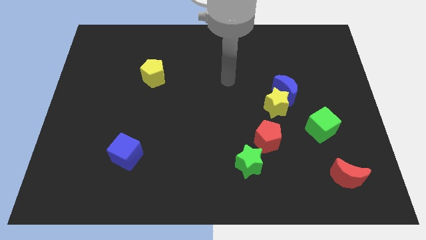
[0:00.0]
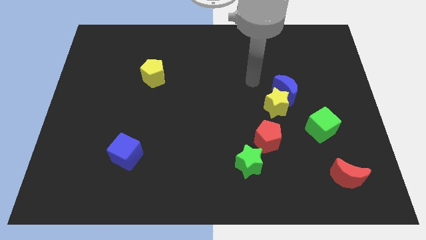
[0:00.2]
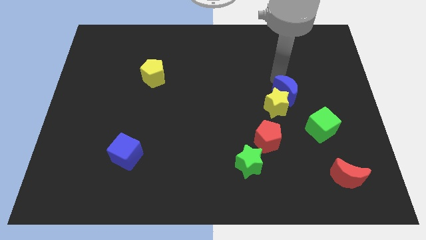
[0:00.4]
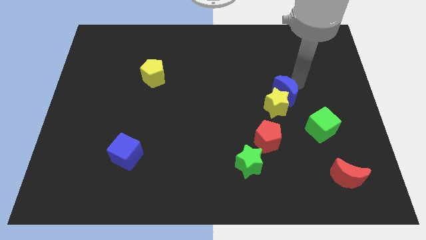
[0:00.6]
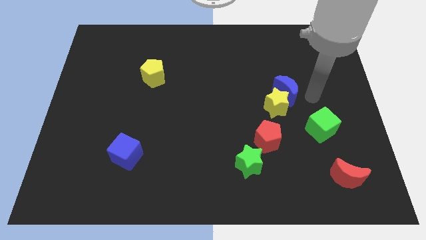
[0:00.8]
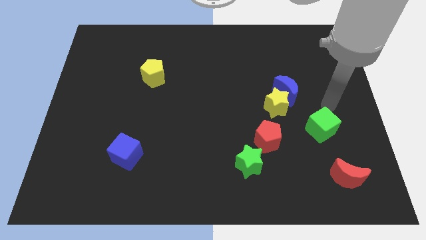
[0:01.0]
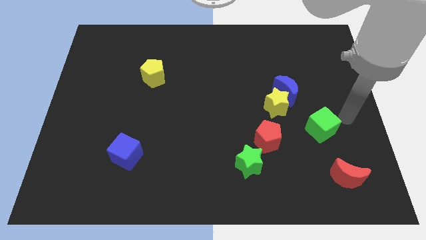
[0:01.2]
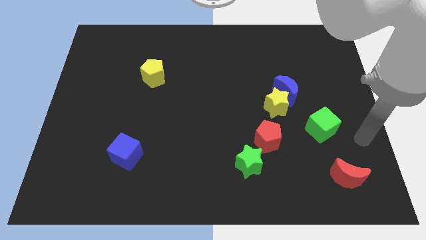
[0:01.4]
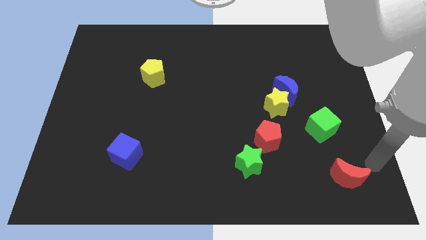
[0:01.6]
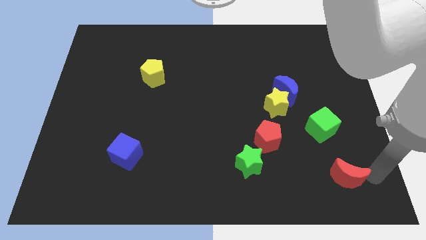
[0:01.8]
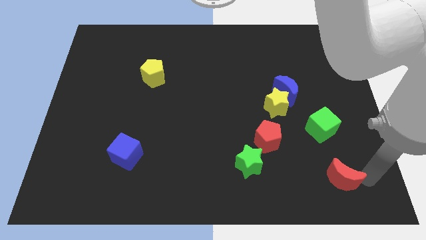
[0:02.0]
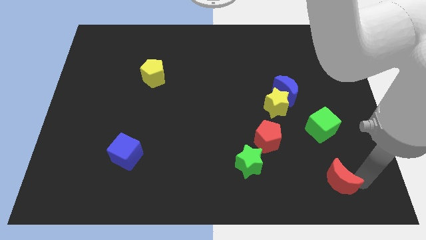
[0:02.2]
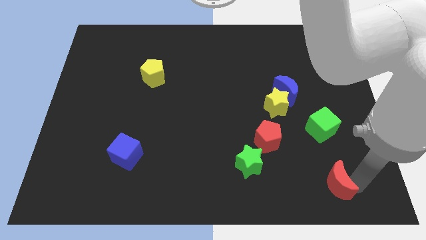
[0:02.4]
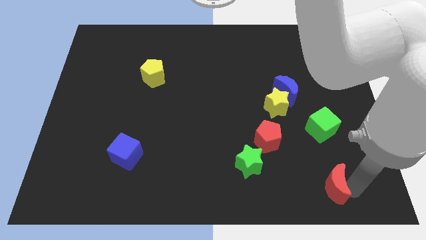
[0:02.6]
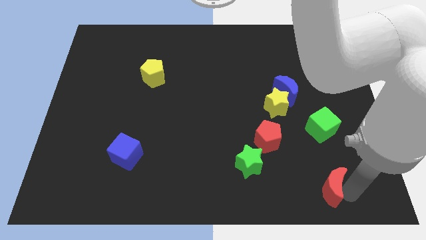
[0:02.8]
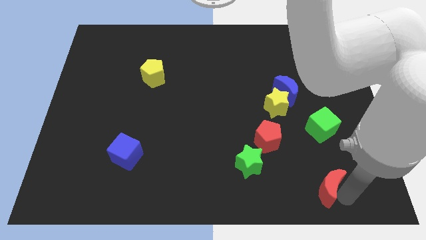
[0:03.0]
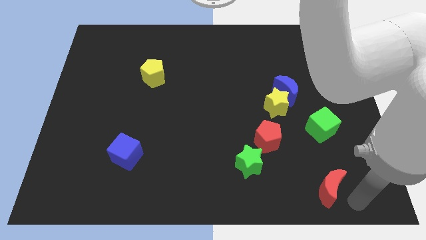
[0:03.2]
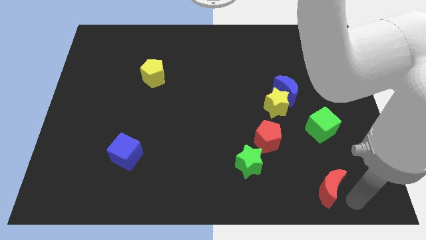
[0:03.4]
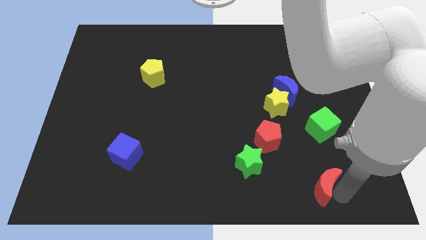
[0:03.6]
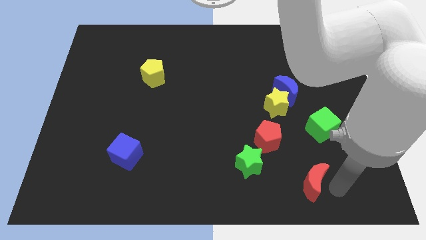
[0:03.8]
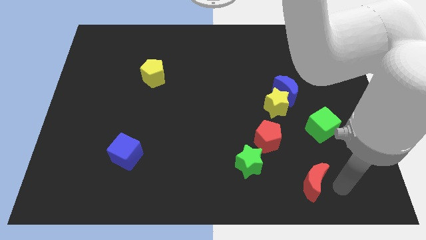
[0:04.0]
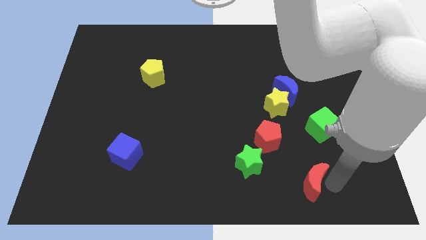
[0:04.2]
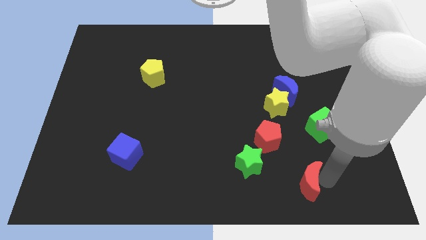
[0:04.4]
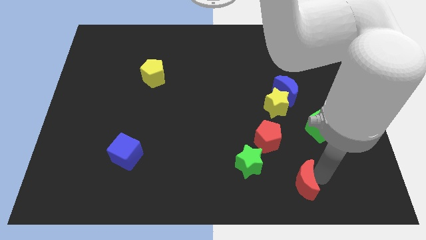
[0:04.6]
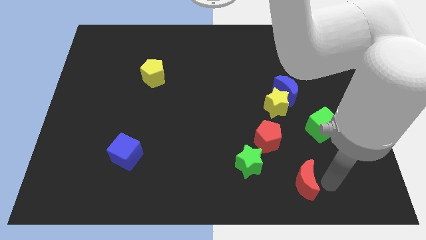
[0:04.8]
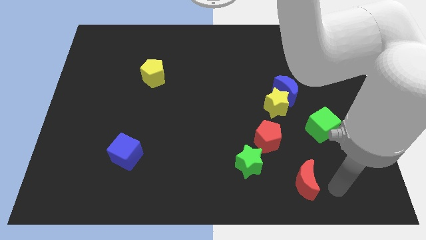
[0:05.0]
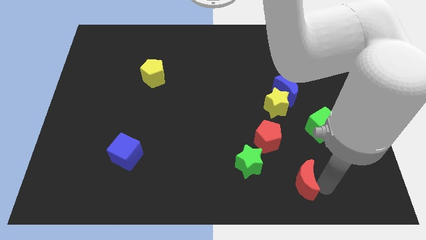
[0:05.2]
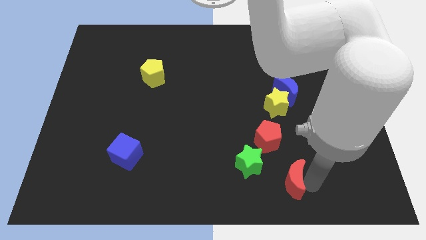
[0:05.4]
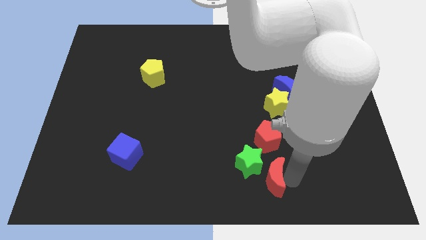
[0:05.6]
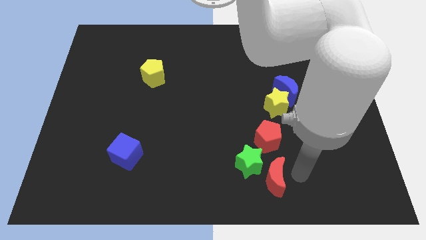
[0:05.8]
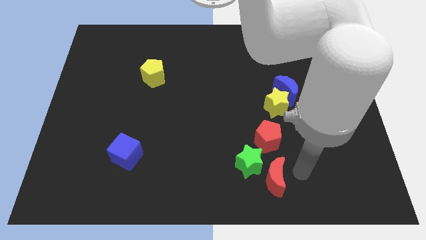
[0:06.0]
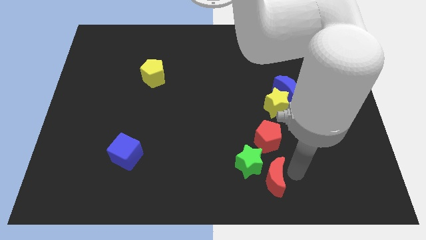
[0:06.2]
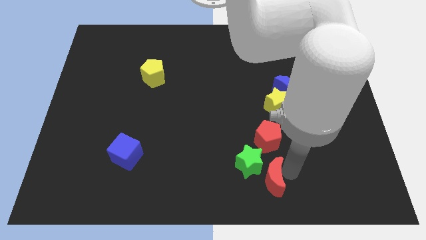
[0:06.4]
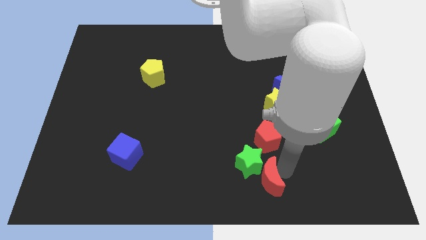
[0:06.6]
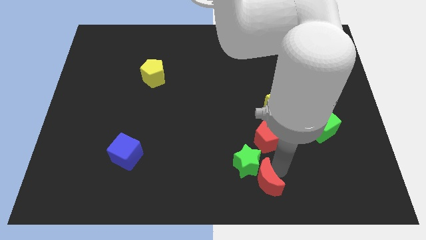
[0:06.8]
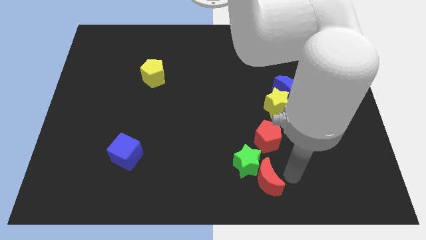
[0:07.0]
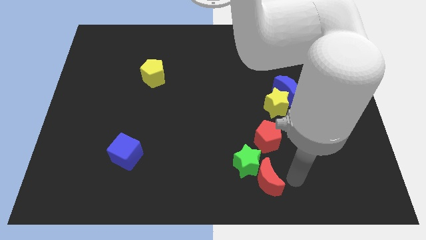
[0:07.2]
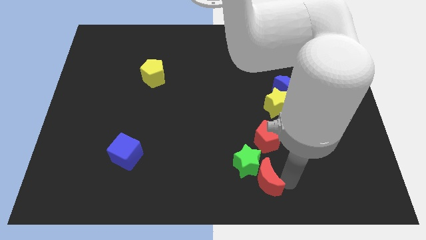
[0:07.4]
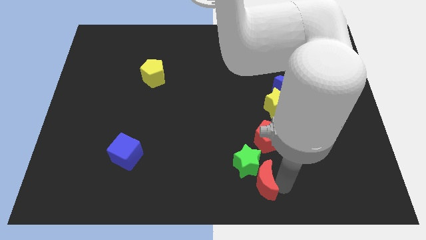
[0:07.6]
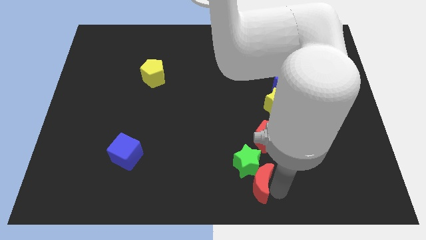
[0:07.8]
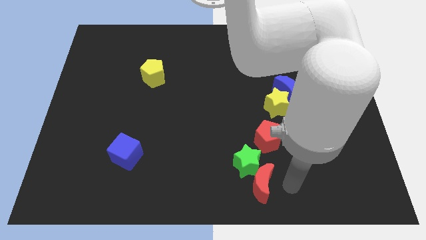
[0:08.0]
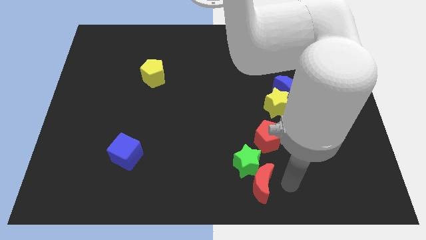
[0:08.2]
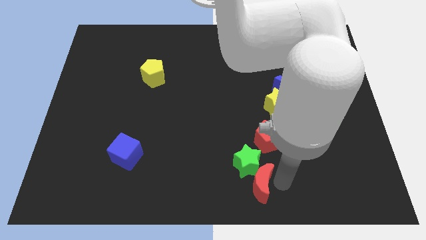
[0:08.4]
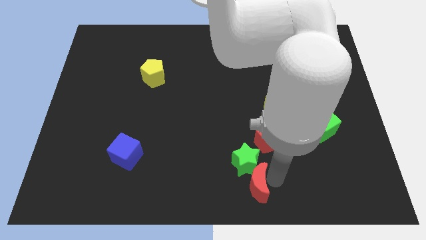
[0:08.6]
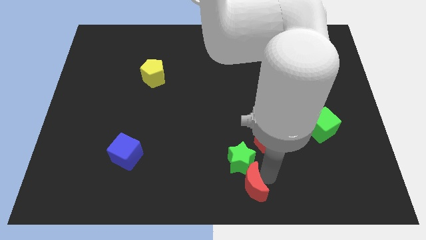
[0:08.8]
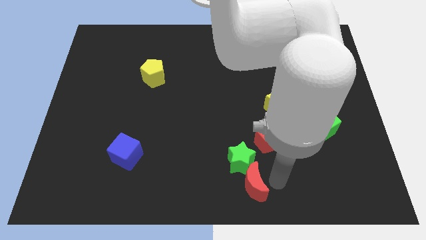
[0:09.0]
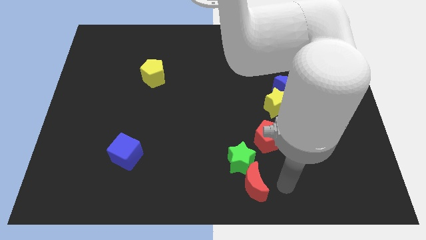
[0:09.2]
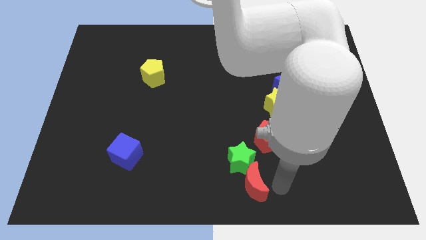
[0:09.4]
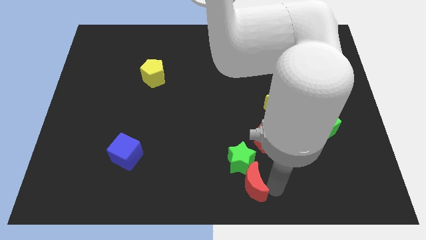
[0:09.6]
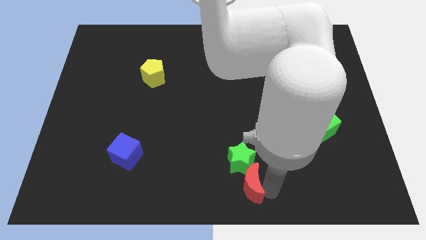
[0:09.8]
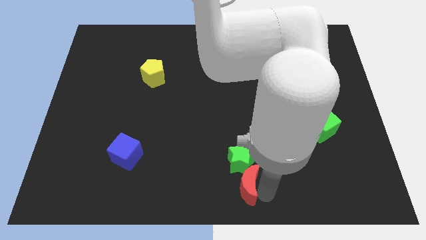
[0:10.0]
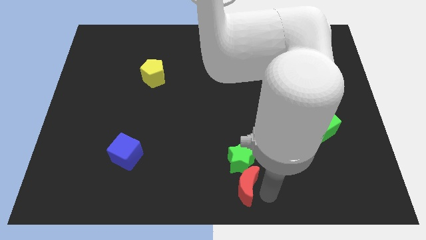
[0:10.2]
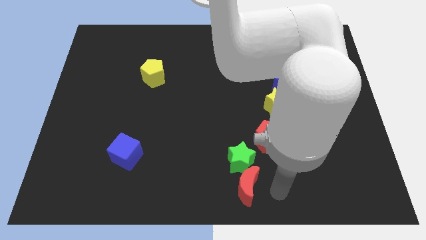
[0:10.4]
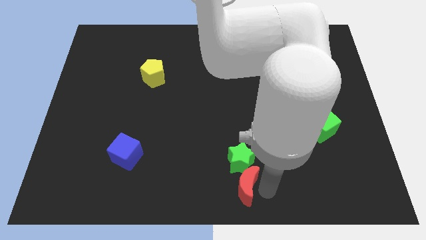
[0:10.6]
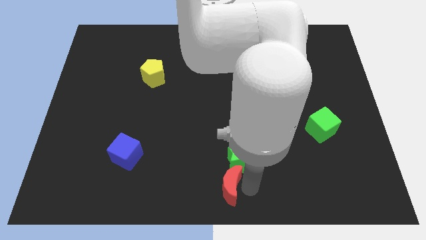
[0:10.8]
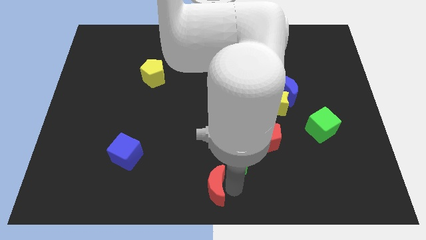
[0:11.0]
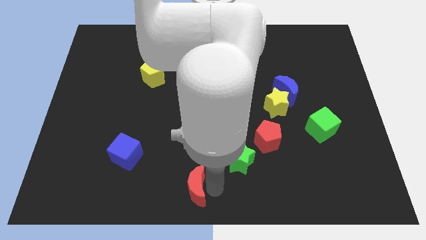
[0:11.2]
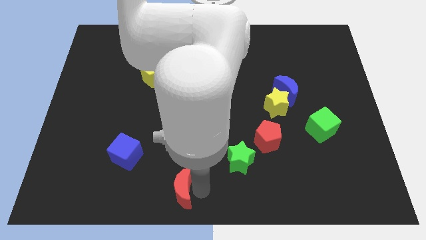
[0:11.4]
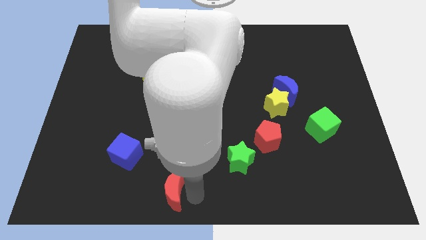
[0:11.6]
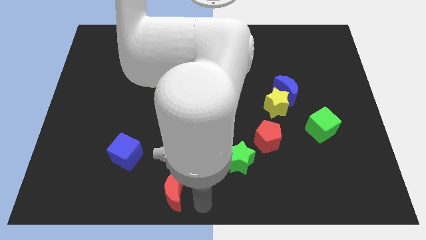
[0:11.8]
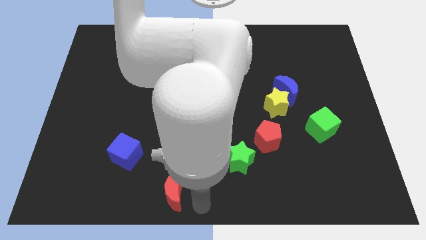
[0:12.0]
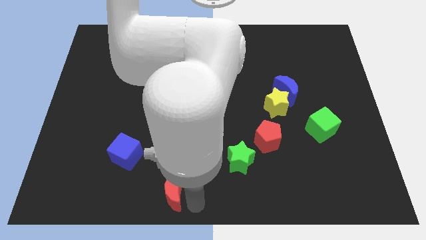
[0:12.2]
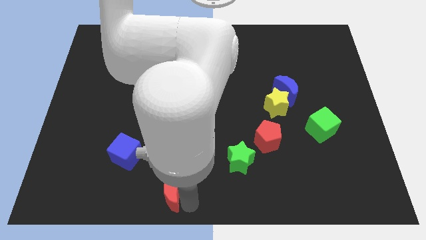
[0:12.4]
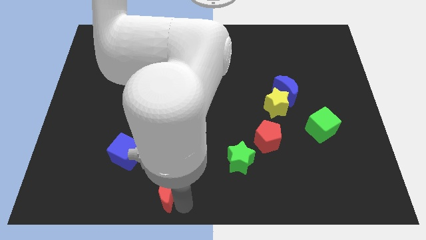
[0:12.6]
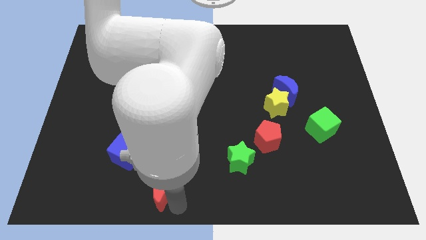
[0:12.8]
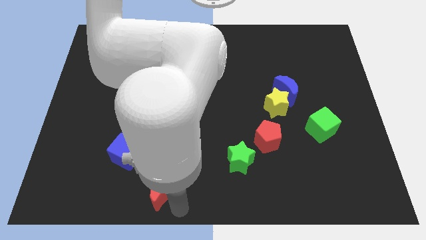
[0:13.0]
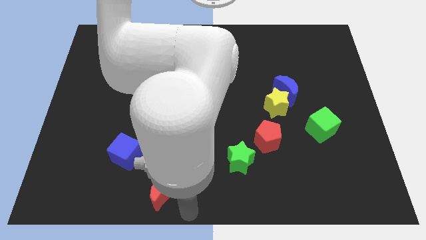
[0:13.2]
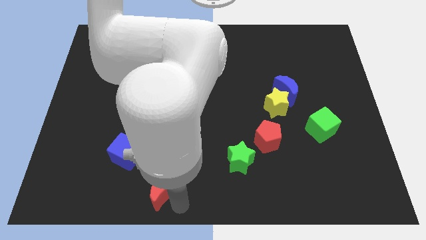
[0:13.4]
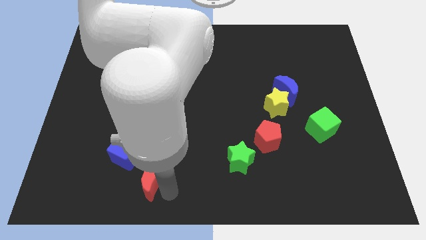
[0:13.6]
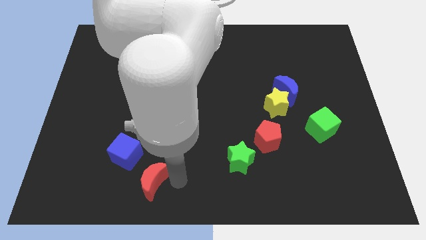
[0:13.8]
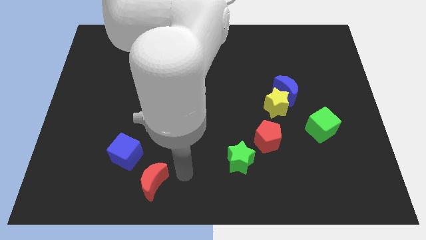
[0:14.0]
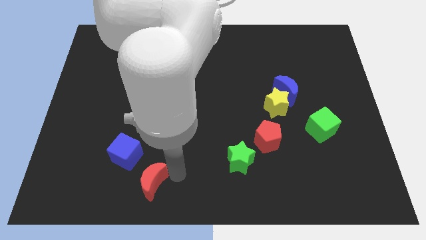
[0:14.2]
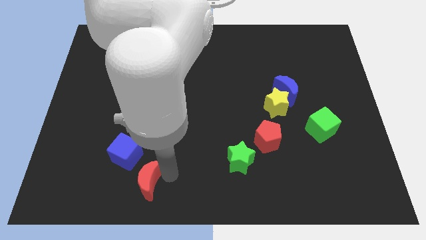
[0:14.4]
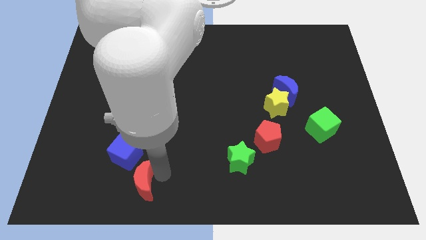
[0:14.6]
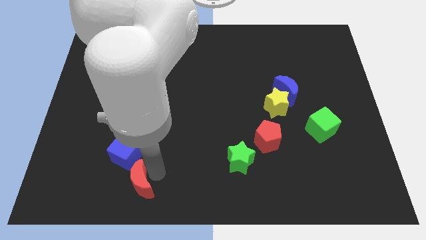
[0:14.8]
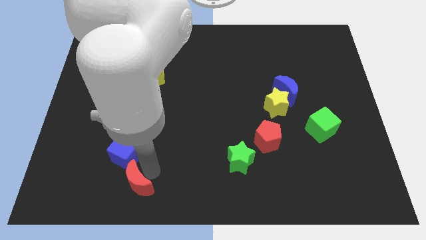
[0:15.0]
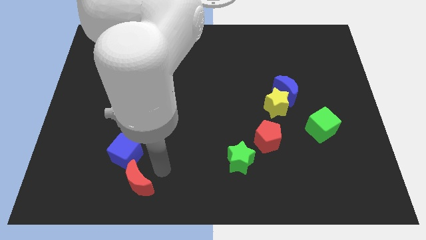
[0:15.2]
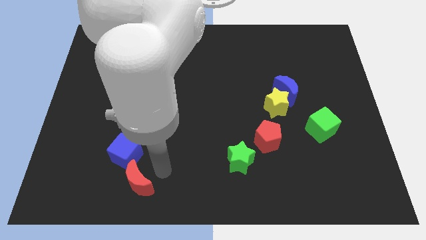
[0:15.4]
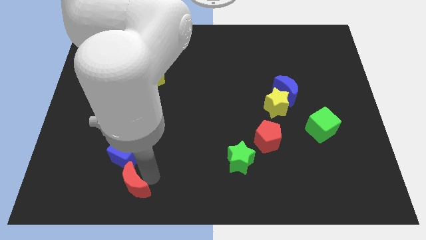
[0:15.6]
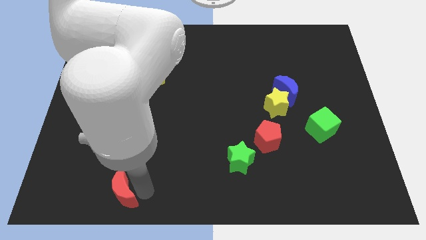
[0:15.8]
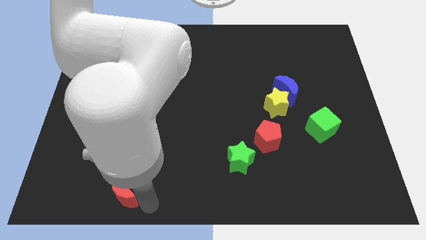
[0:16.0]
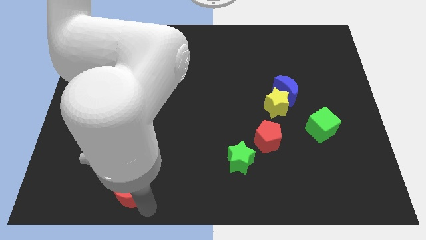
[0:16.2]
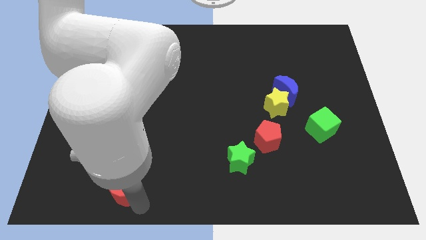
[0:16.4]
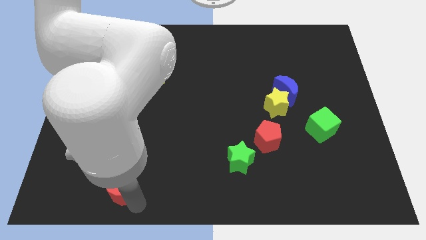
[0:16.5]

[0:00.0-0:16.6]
move the red moon to the bottom left of the blue cube
